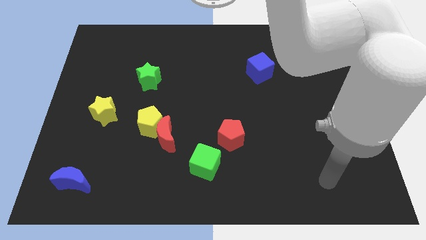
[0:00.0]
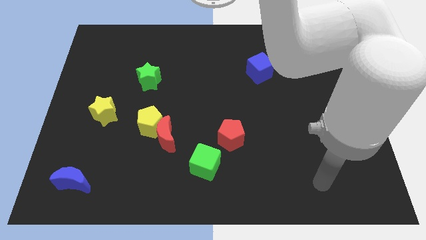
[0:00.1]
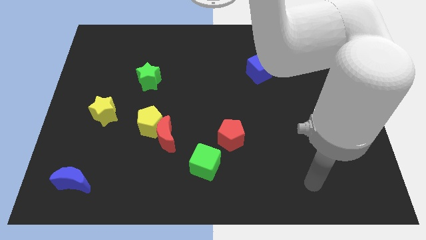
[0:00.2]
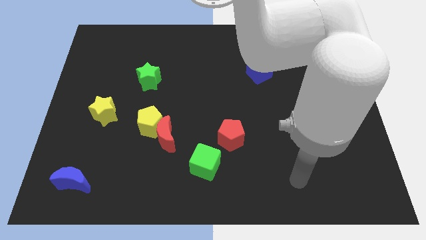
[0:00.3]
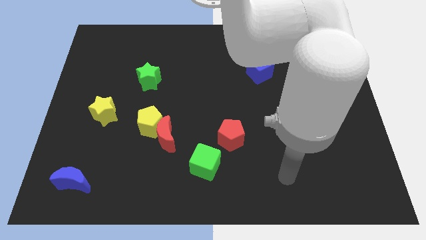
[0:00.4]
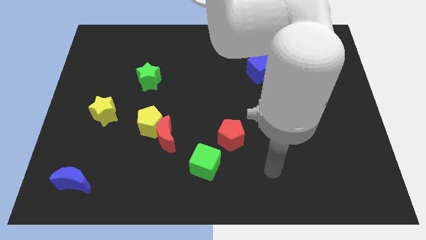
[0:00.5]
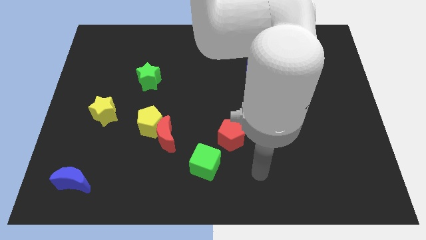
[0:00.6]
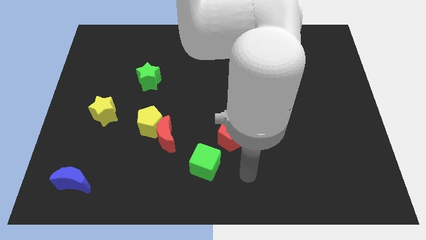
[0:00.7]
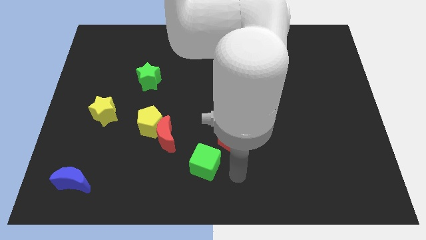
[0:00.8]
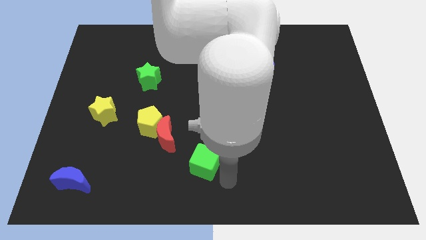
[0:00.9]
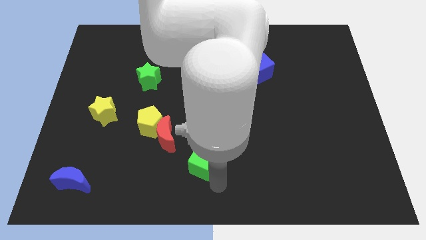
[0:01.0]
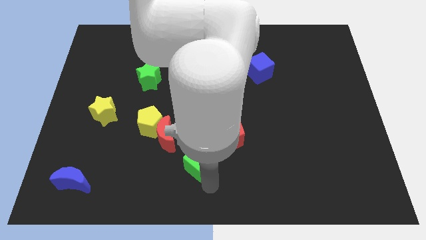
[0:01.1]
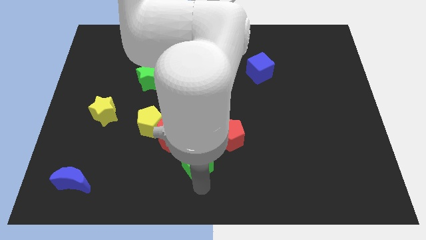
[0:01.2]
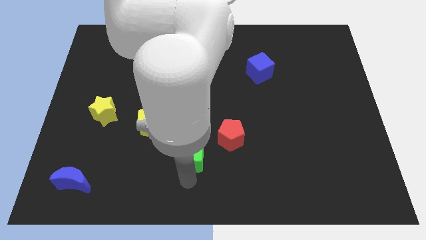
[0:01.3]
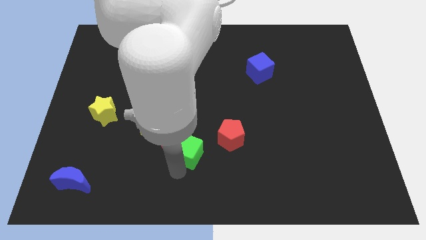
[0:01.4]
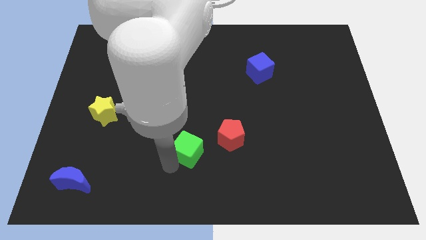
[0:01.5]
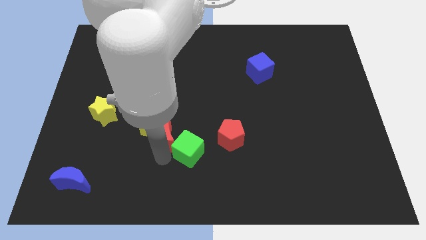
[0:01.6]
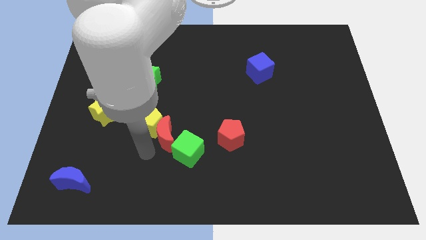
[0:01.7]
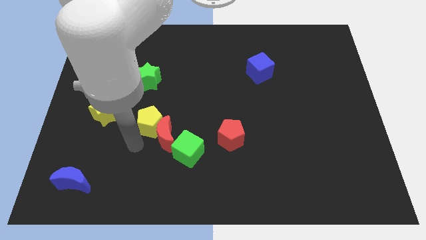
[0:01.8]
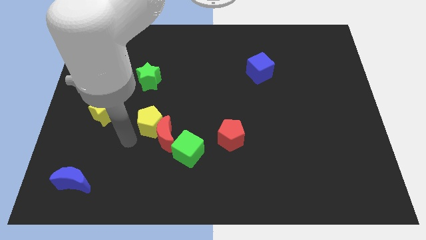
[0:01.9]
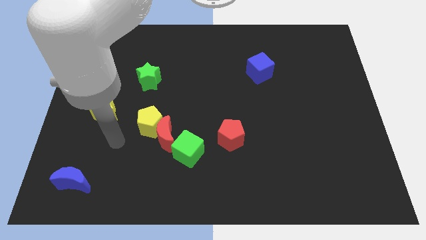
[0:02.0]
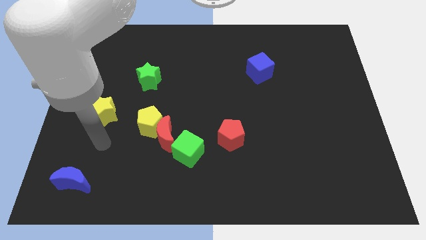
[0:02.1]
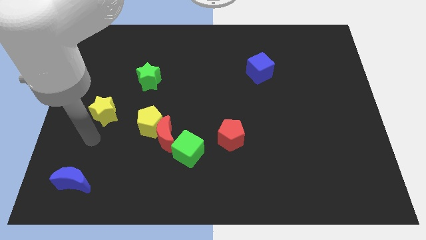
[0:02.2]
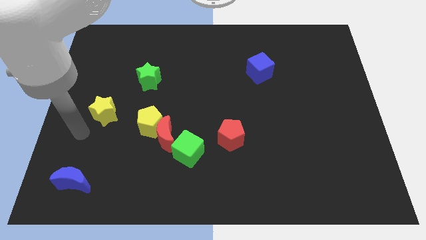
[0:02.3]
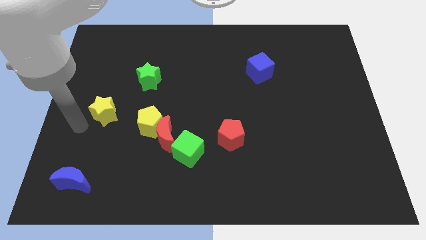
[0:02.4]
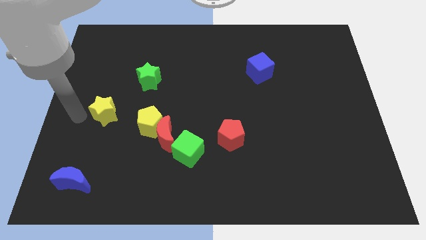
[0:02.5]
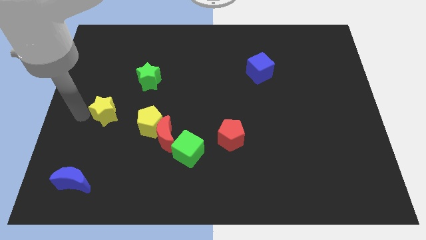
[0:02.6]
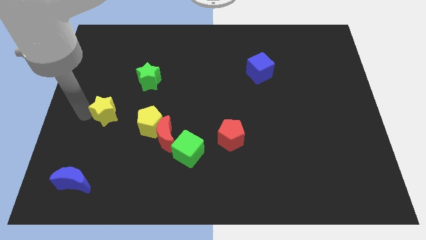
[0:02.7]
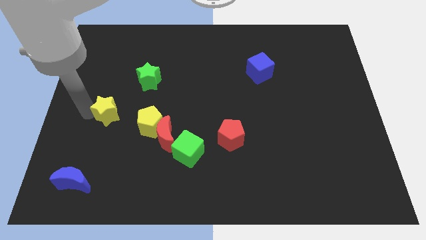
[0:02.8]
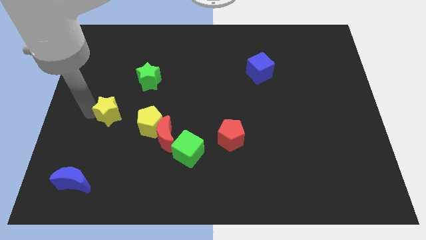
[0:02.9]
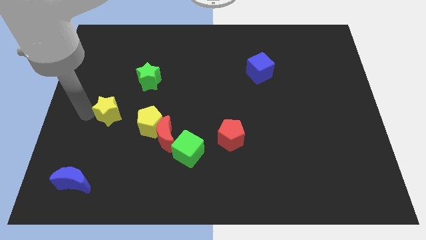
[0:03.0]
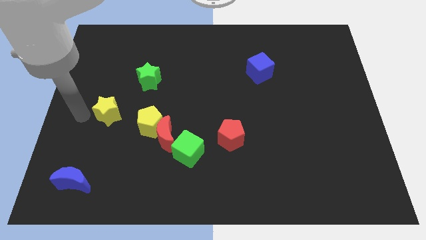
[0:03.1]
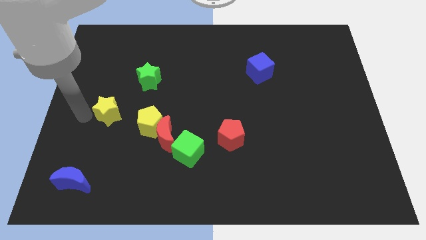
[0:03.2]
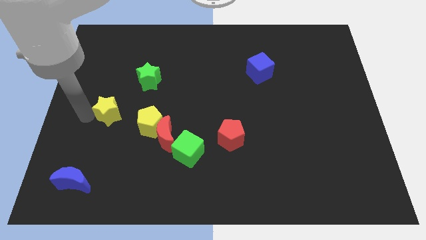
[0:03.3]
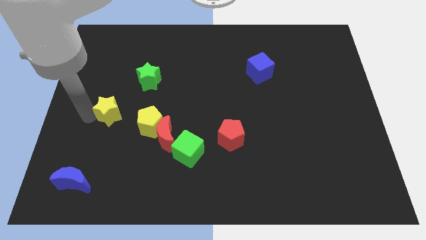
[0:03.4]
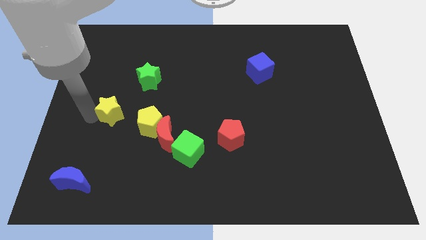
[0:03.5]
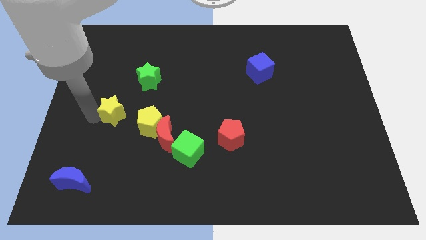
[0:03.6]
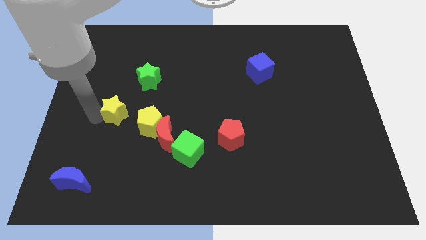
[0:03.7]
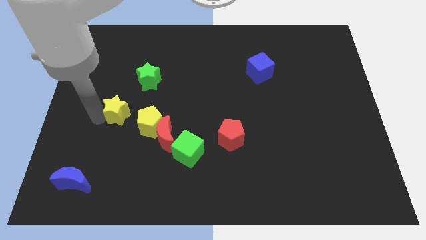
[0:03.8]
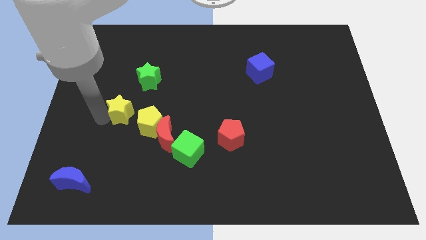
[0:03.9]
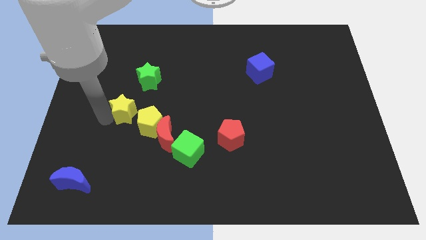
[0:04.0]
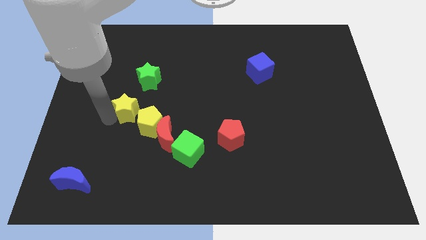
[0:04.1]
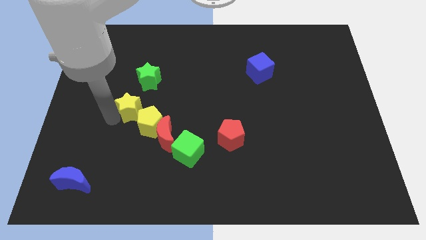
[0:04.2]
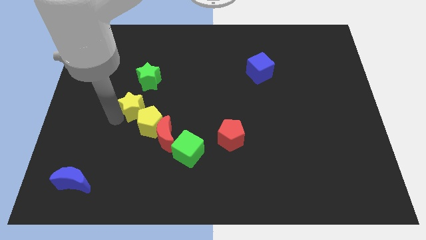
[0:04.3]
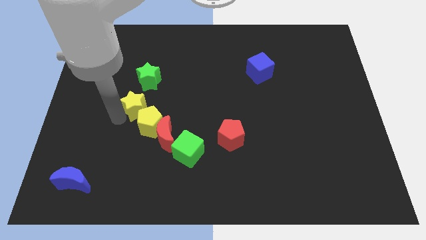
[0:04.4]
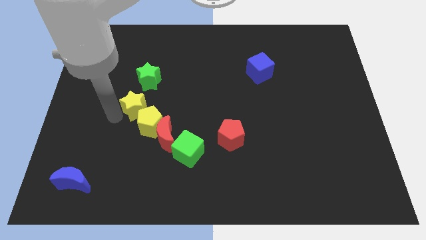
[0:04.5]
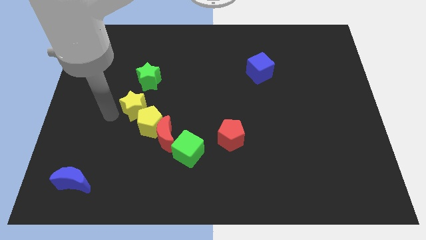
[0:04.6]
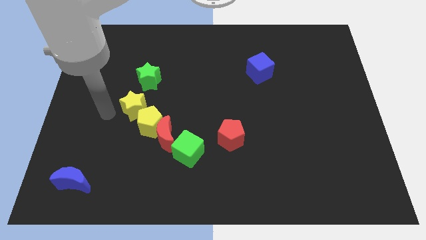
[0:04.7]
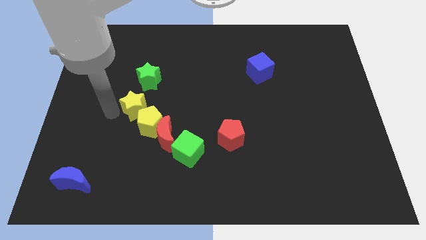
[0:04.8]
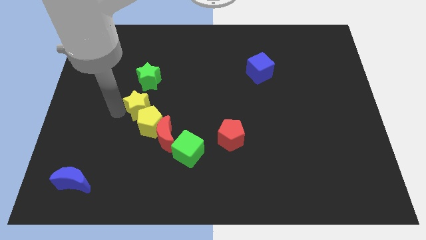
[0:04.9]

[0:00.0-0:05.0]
move the yellow star right a little bit

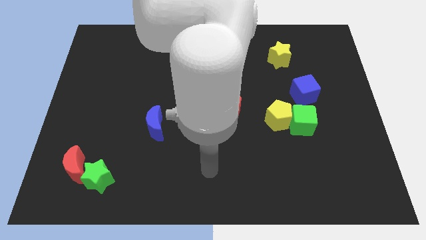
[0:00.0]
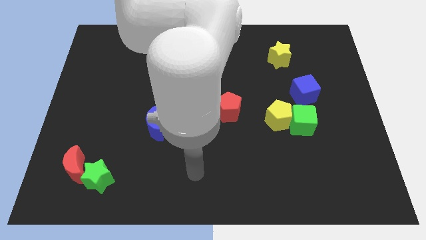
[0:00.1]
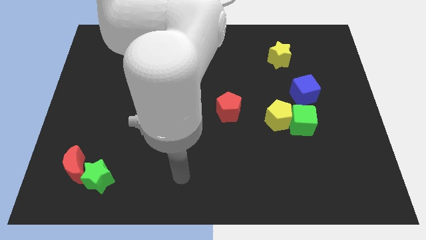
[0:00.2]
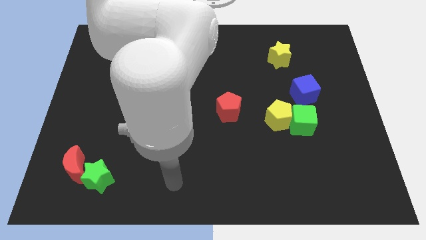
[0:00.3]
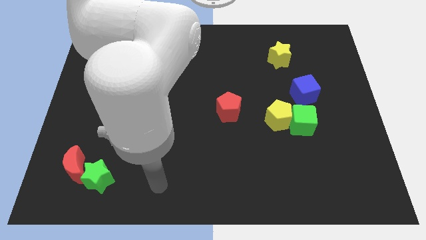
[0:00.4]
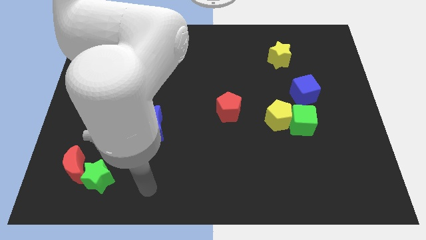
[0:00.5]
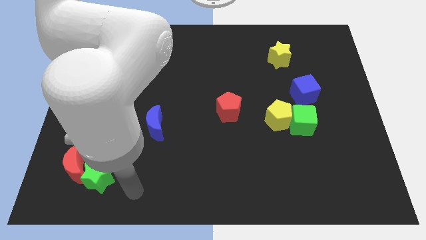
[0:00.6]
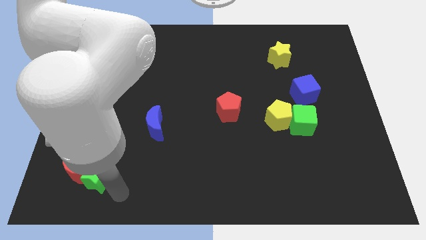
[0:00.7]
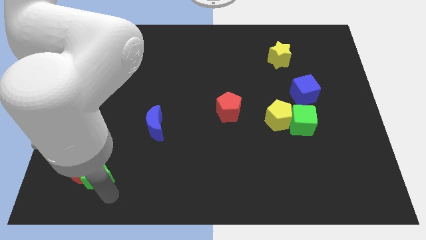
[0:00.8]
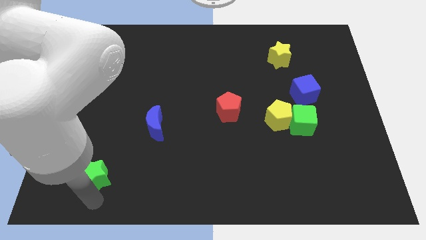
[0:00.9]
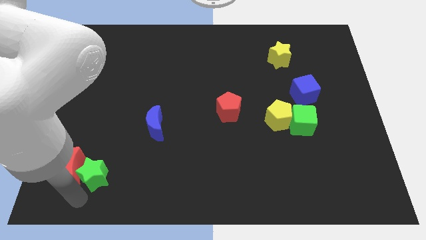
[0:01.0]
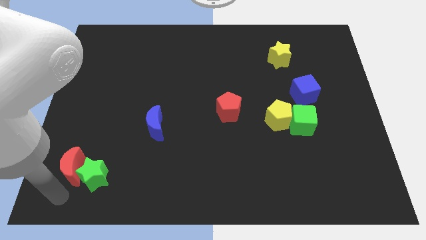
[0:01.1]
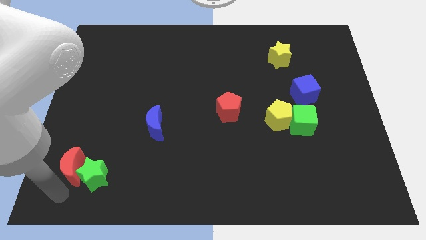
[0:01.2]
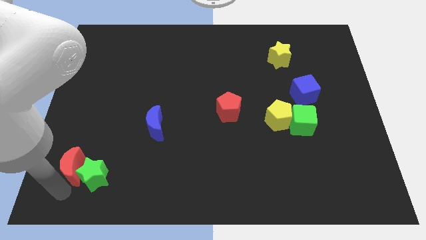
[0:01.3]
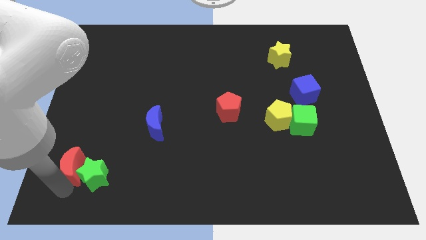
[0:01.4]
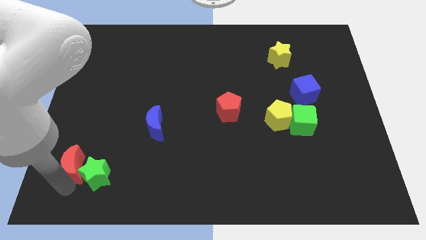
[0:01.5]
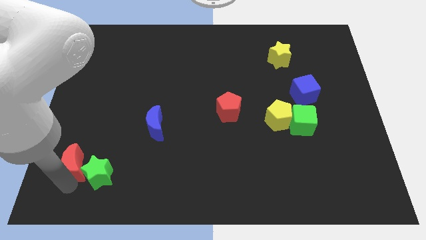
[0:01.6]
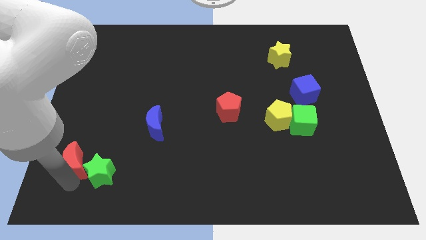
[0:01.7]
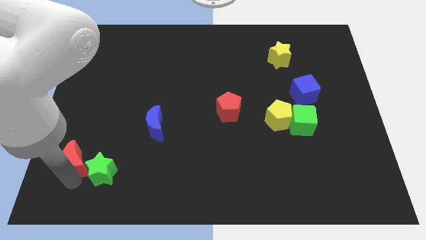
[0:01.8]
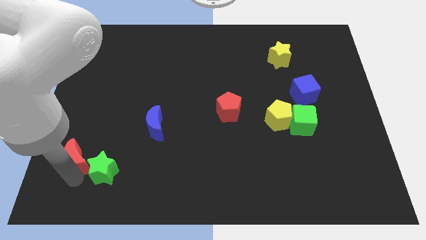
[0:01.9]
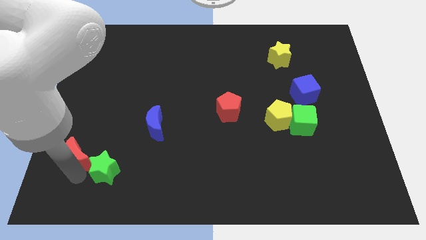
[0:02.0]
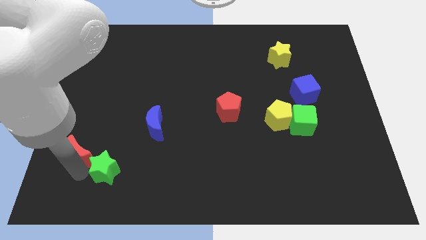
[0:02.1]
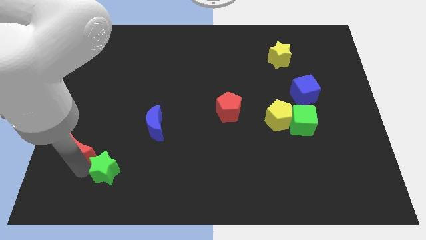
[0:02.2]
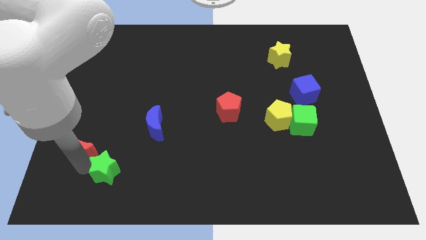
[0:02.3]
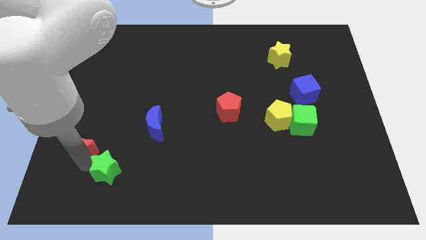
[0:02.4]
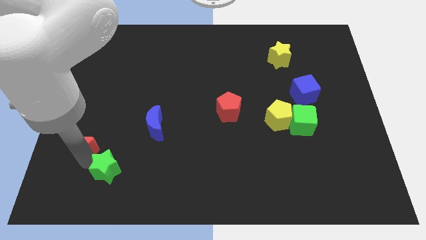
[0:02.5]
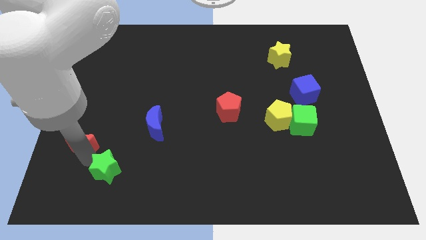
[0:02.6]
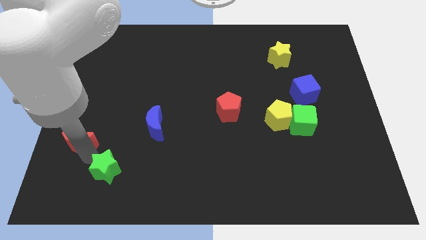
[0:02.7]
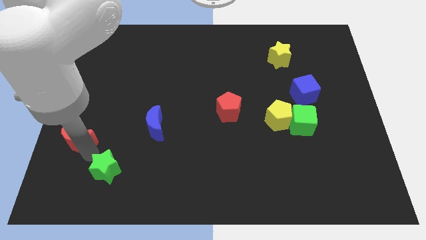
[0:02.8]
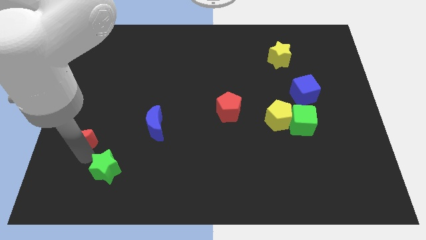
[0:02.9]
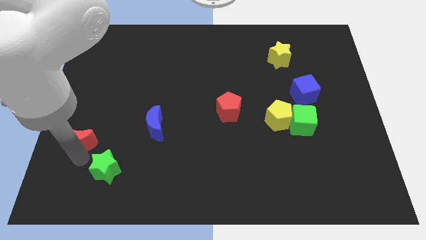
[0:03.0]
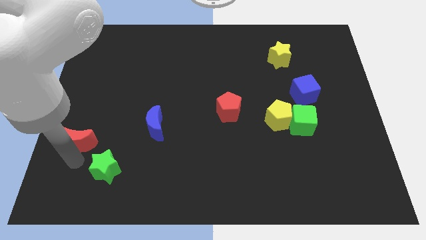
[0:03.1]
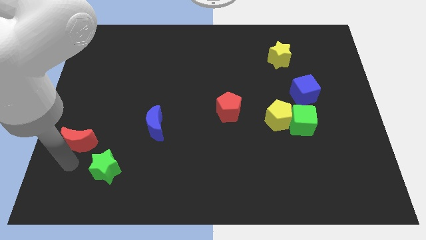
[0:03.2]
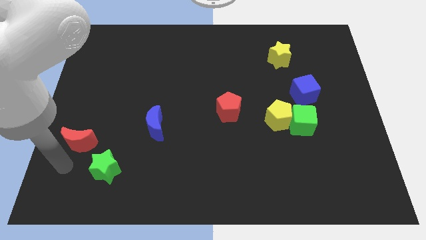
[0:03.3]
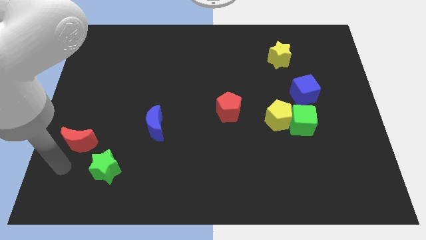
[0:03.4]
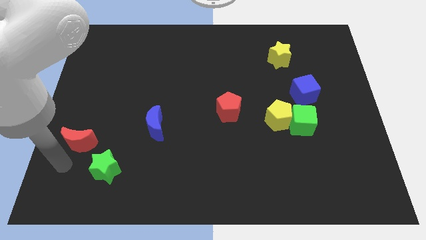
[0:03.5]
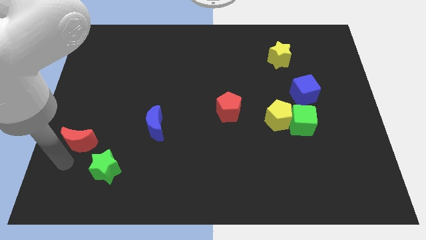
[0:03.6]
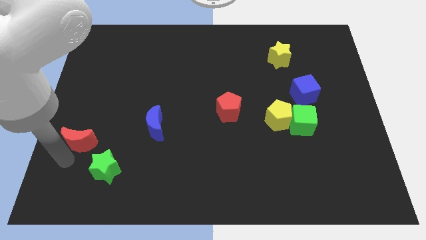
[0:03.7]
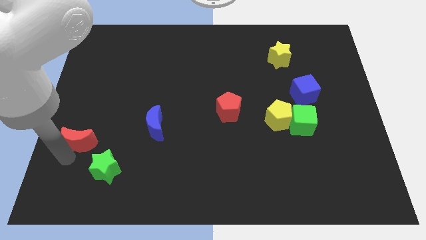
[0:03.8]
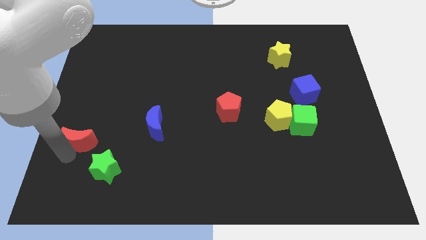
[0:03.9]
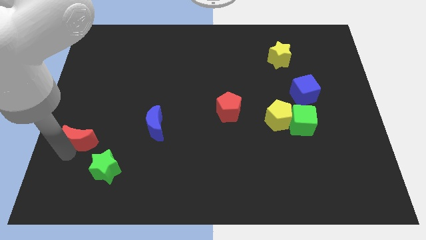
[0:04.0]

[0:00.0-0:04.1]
move the red moon up a little
